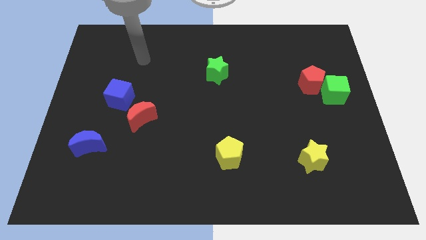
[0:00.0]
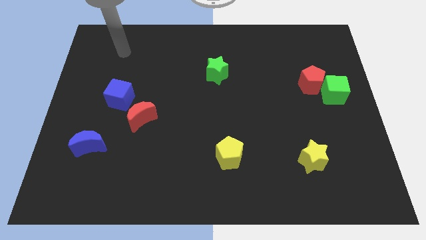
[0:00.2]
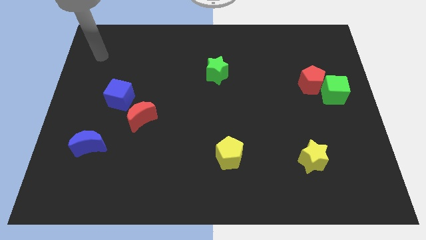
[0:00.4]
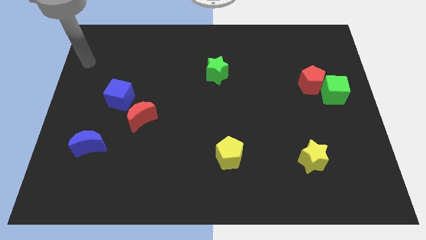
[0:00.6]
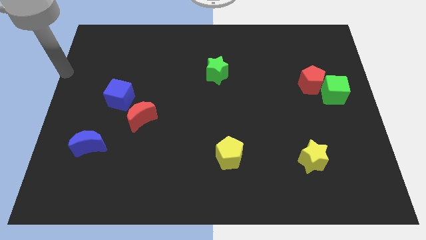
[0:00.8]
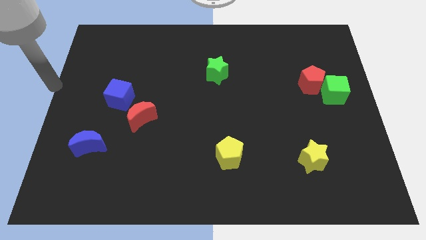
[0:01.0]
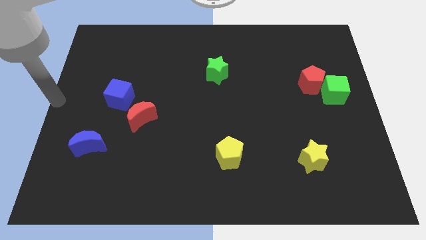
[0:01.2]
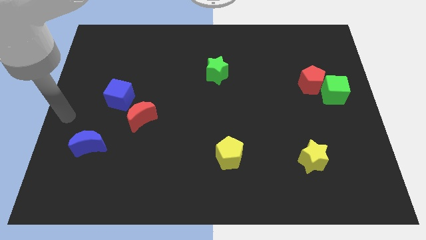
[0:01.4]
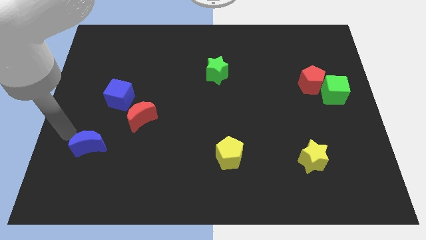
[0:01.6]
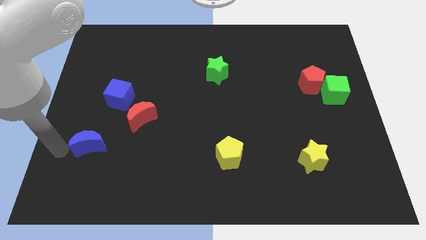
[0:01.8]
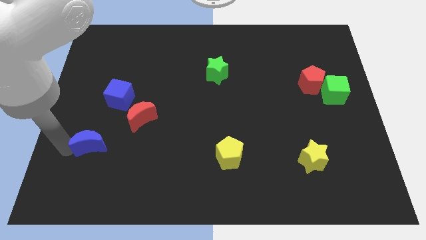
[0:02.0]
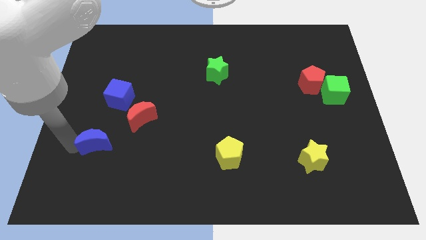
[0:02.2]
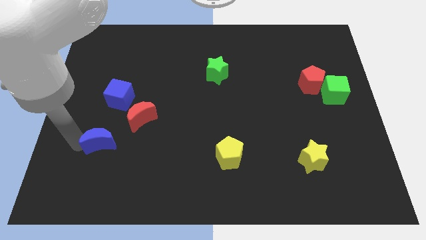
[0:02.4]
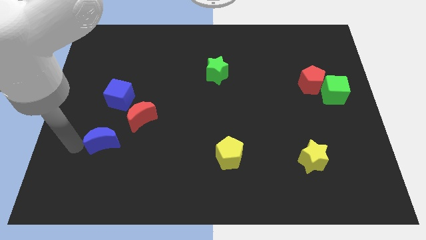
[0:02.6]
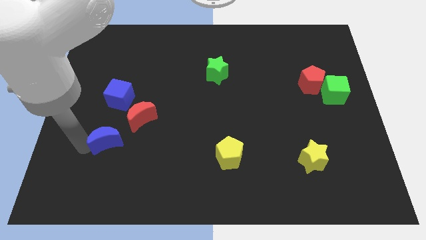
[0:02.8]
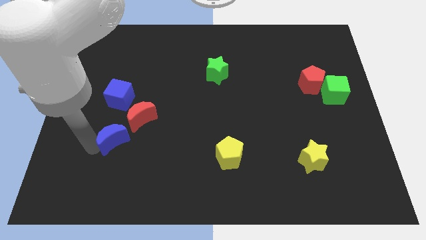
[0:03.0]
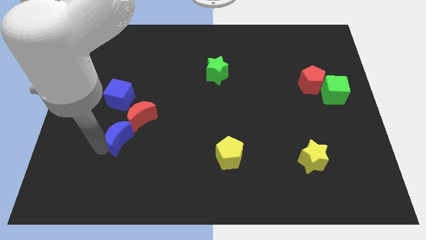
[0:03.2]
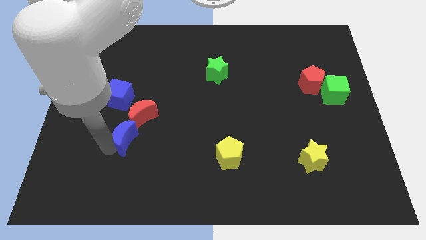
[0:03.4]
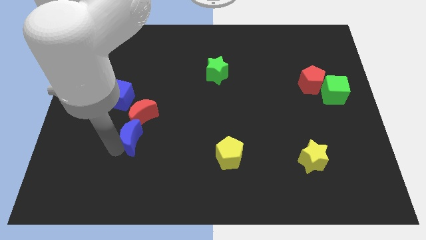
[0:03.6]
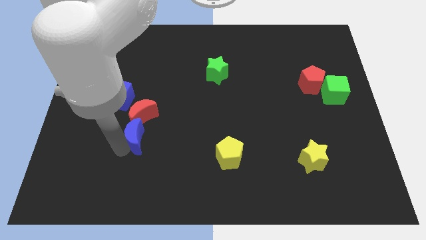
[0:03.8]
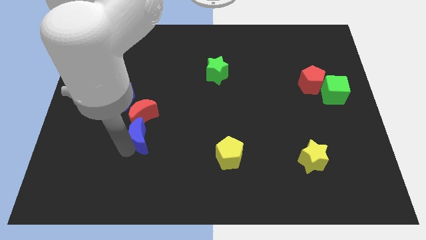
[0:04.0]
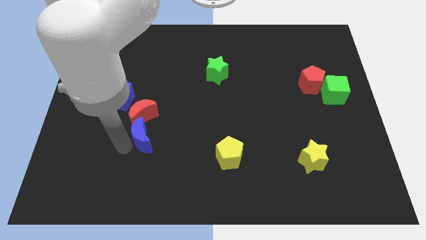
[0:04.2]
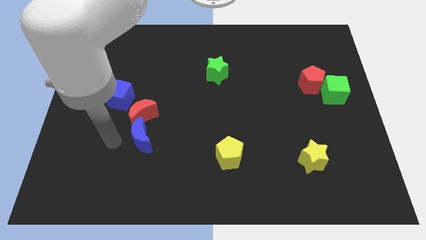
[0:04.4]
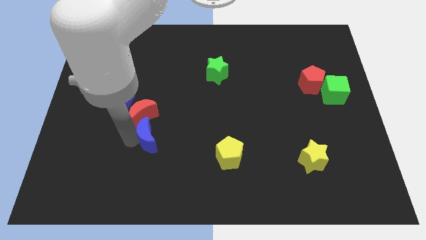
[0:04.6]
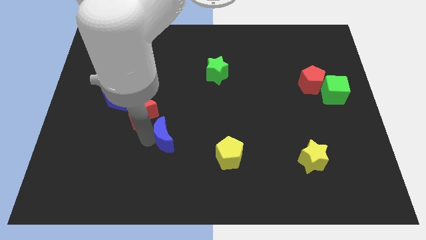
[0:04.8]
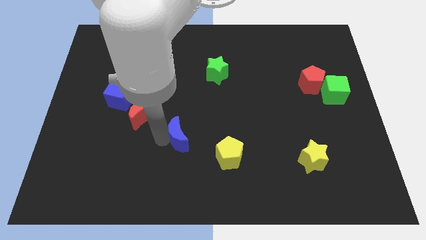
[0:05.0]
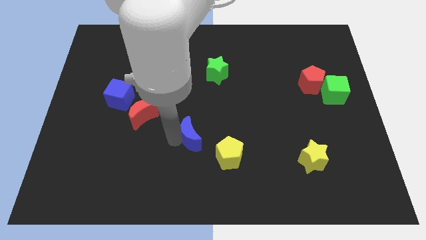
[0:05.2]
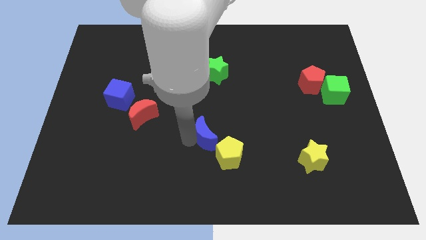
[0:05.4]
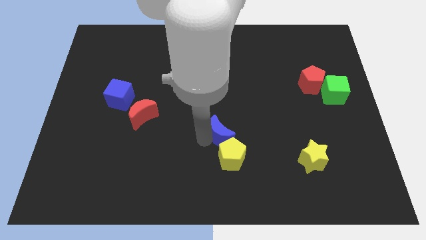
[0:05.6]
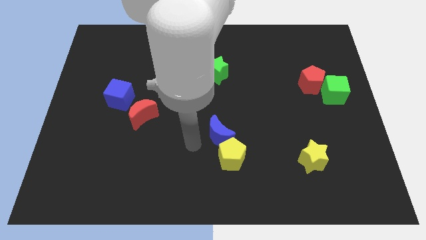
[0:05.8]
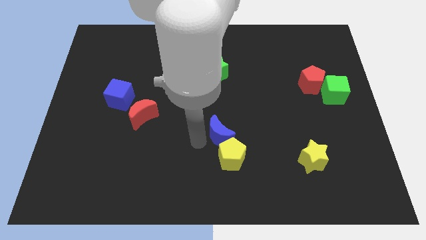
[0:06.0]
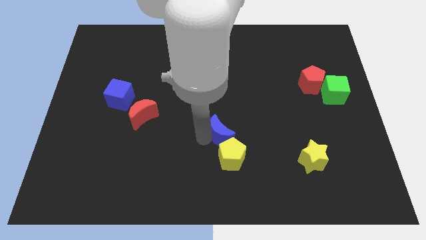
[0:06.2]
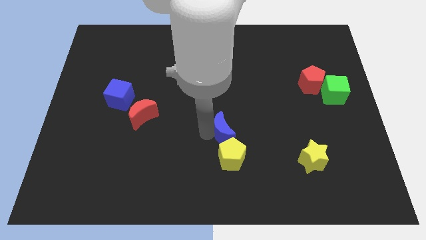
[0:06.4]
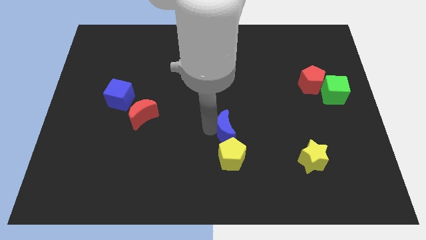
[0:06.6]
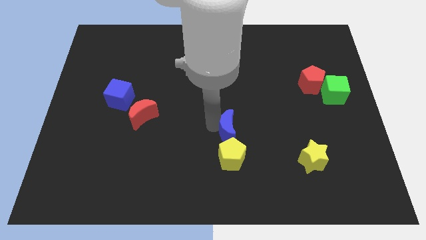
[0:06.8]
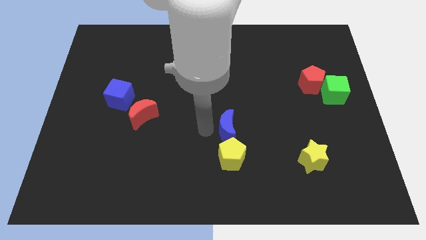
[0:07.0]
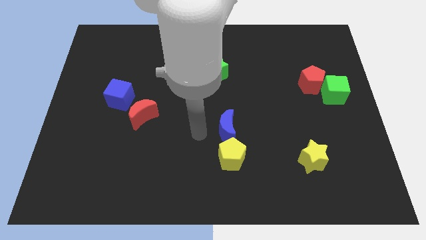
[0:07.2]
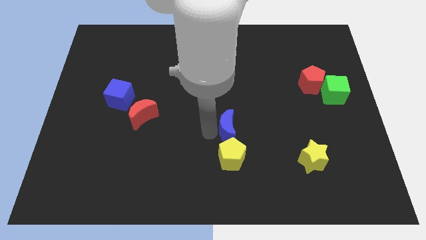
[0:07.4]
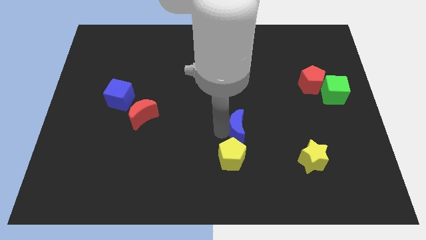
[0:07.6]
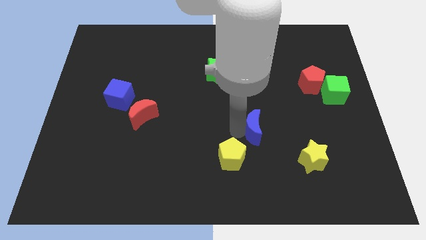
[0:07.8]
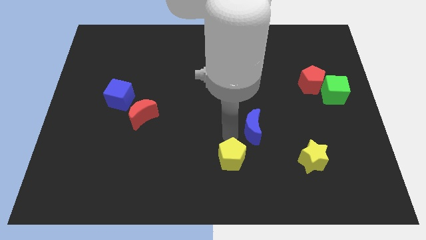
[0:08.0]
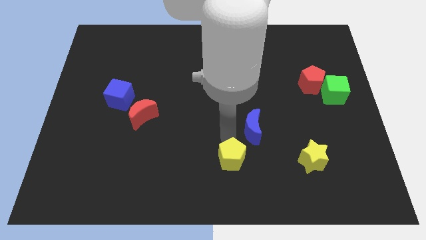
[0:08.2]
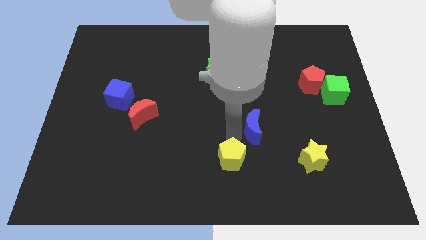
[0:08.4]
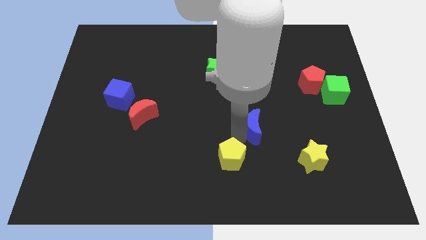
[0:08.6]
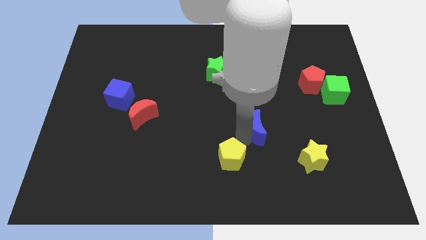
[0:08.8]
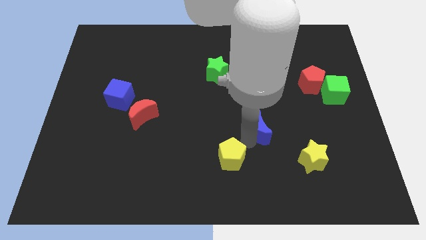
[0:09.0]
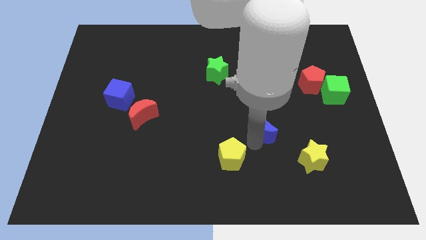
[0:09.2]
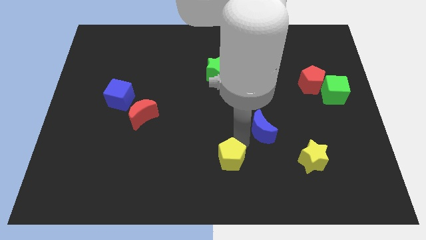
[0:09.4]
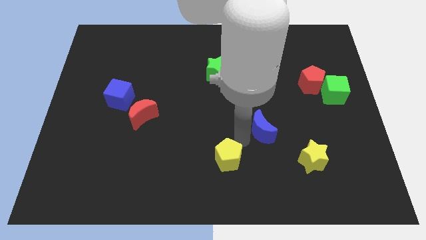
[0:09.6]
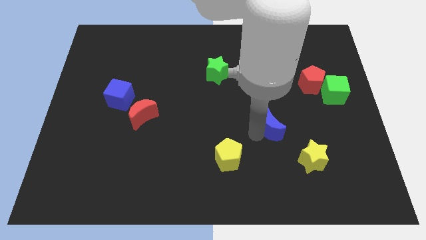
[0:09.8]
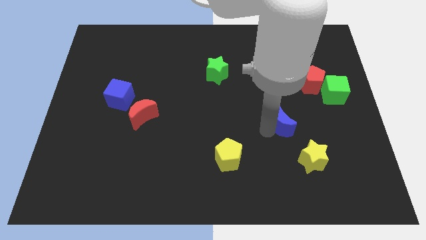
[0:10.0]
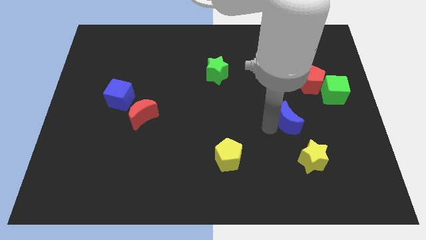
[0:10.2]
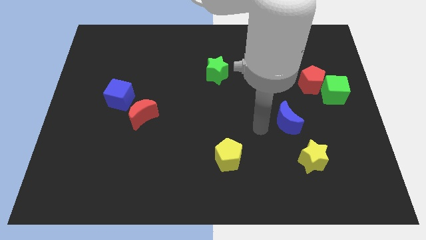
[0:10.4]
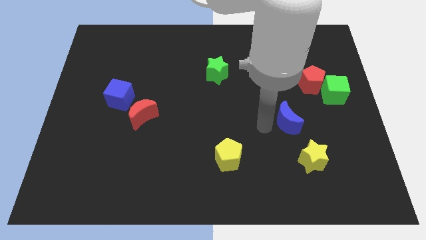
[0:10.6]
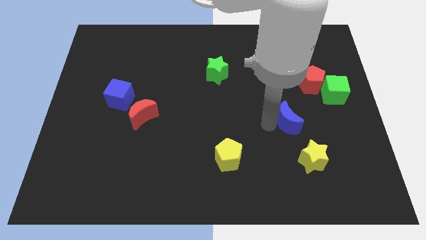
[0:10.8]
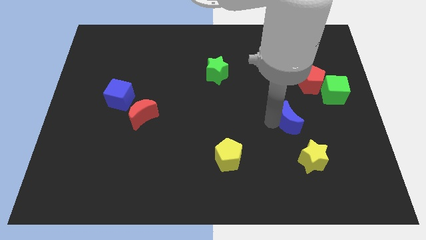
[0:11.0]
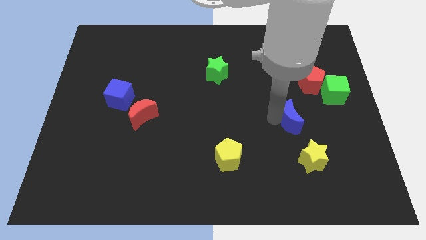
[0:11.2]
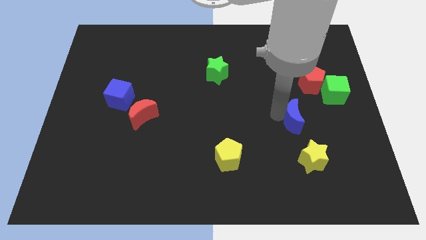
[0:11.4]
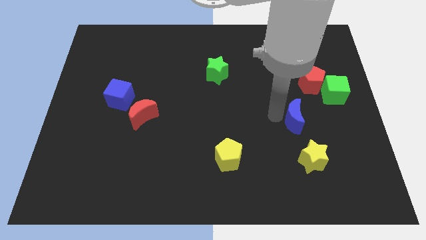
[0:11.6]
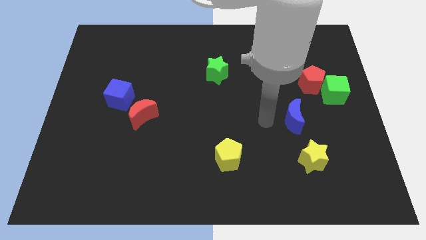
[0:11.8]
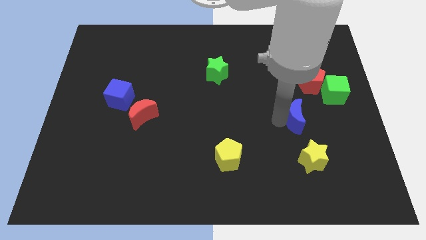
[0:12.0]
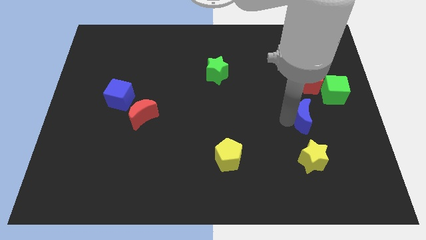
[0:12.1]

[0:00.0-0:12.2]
push the blue moon to the bottom side of the red pentagon

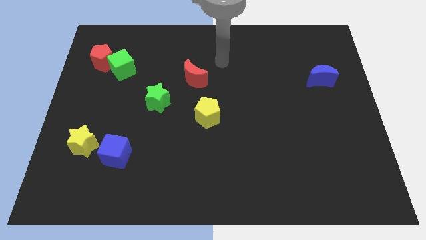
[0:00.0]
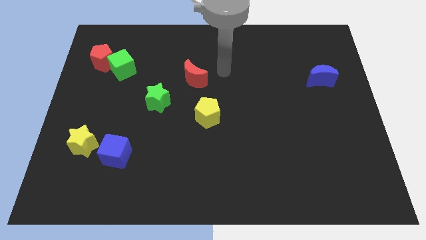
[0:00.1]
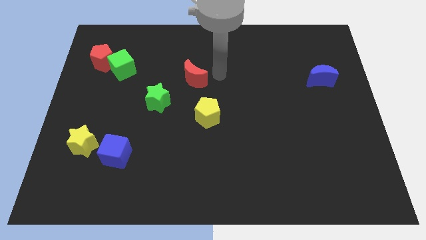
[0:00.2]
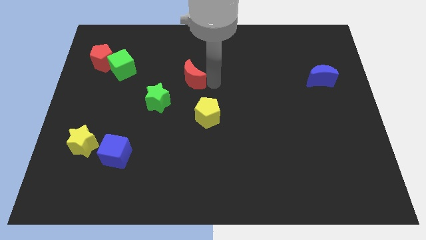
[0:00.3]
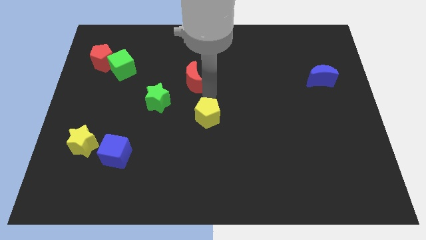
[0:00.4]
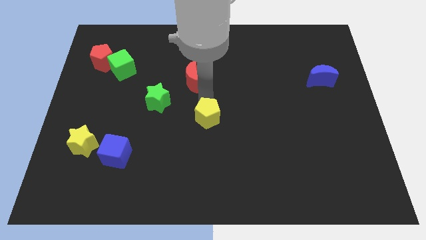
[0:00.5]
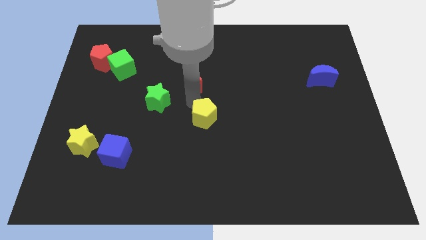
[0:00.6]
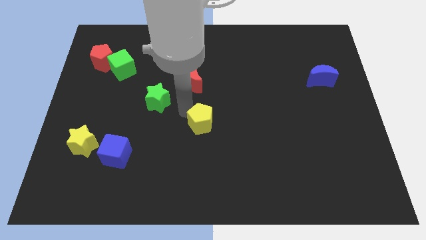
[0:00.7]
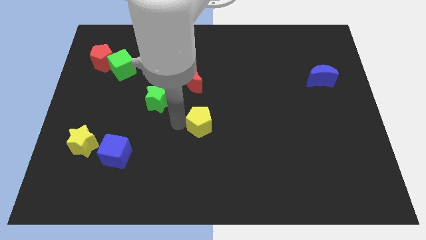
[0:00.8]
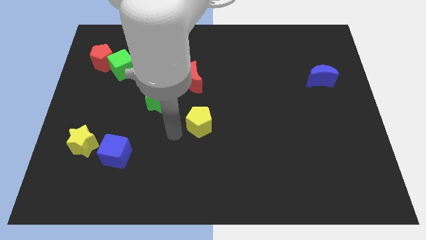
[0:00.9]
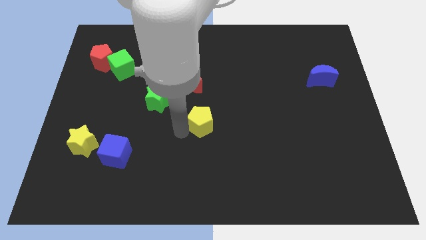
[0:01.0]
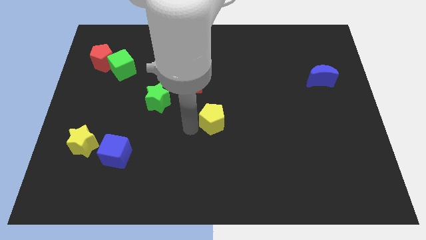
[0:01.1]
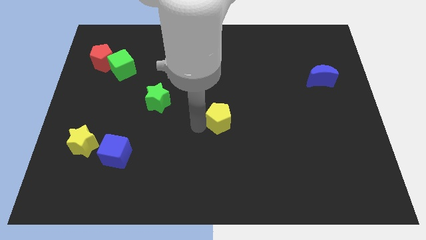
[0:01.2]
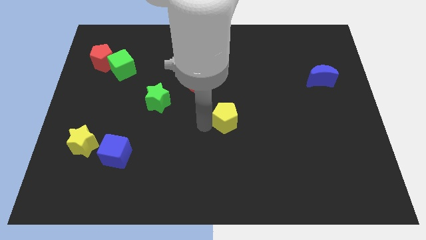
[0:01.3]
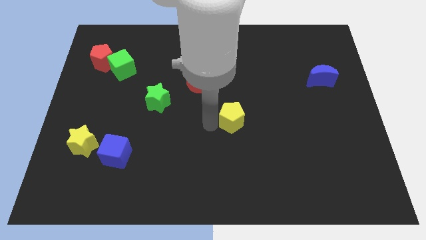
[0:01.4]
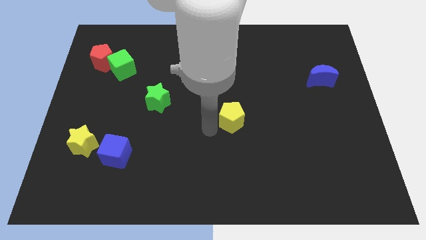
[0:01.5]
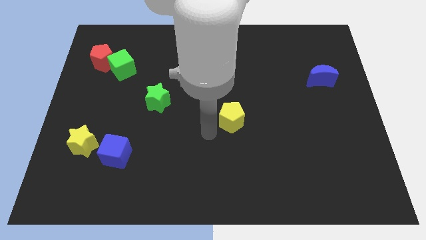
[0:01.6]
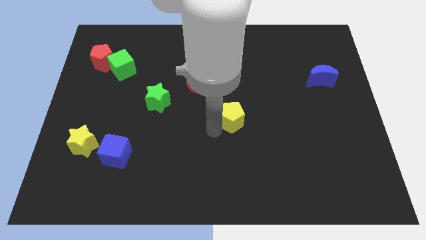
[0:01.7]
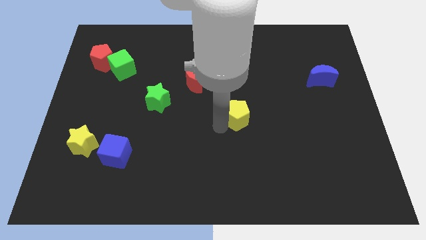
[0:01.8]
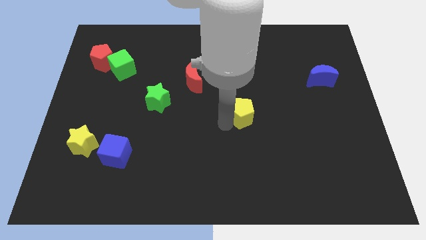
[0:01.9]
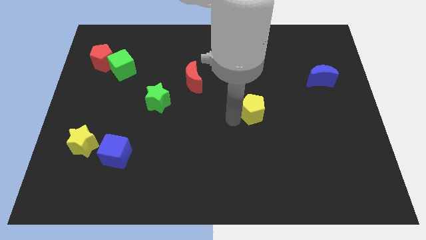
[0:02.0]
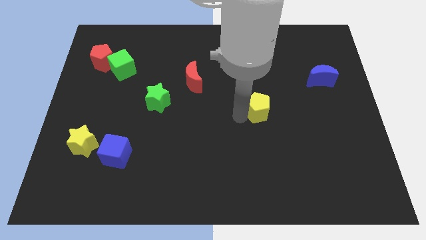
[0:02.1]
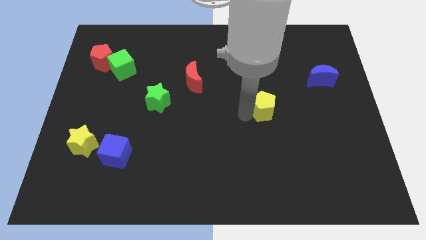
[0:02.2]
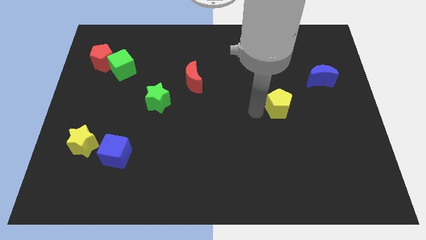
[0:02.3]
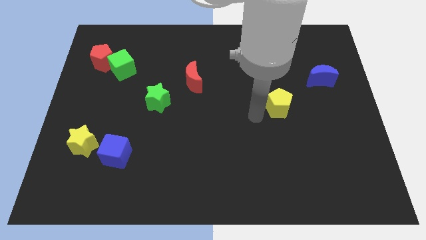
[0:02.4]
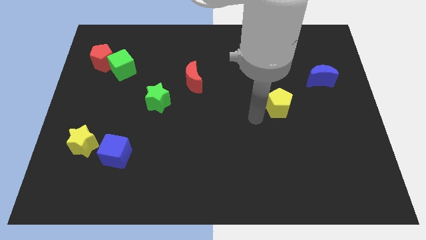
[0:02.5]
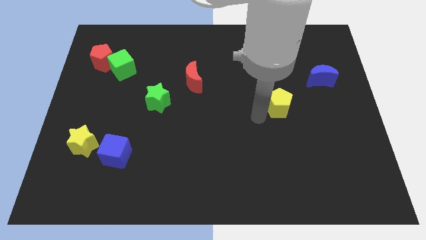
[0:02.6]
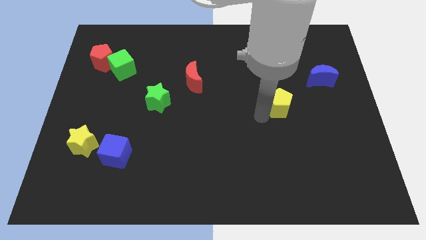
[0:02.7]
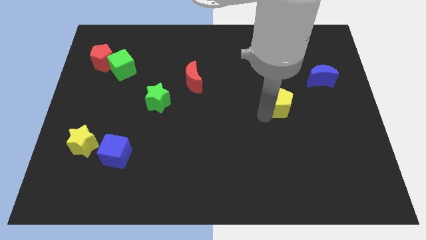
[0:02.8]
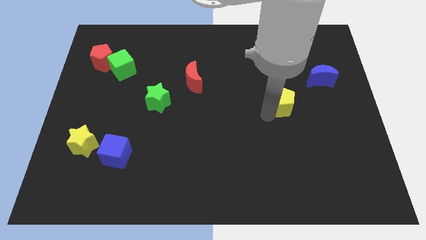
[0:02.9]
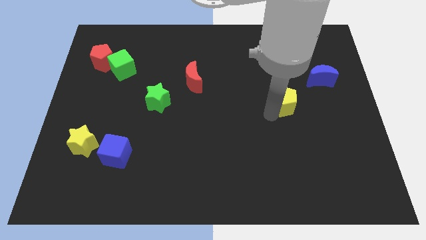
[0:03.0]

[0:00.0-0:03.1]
put the yellow pentagon to the bottom left of the blue moon
